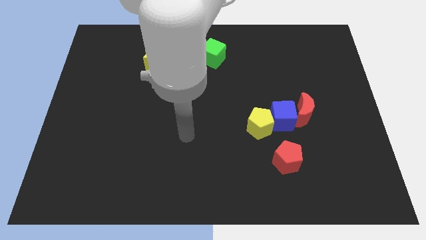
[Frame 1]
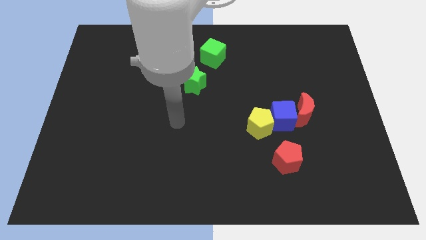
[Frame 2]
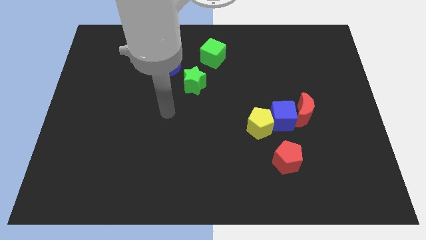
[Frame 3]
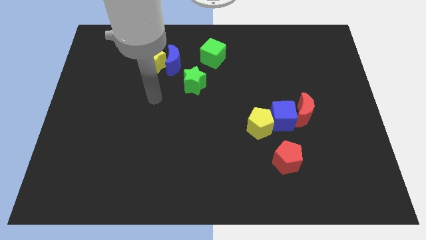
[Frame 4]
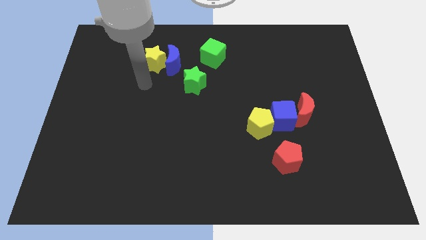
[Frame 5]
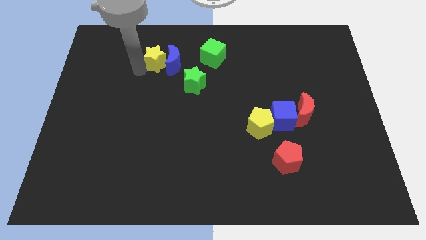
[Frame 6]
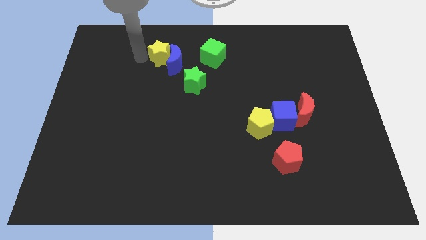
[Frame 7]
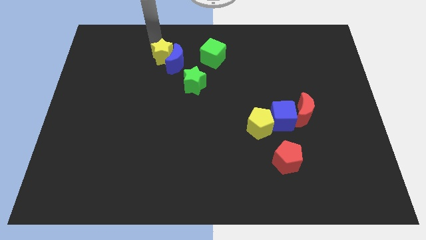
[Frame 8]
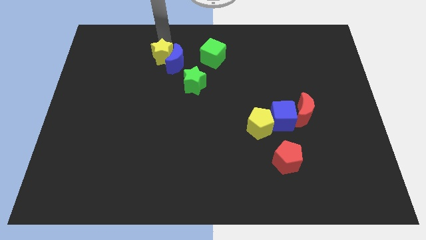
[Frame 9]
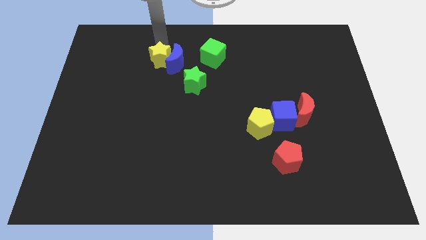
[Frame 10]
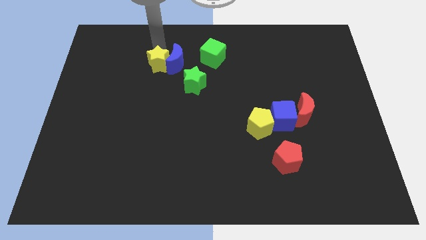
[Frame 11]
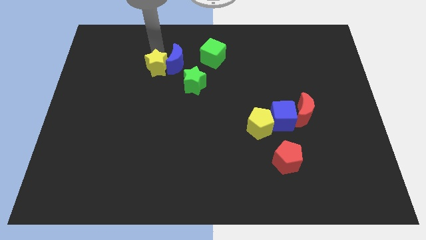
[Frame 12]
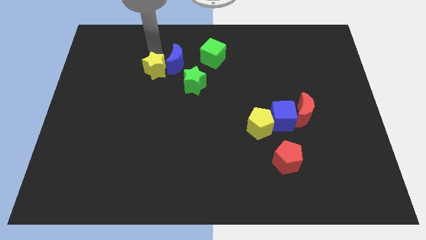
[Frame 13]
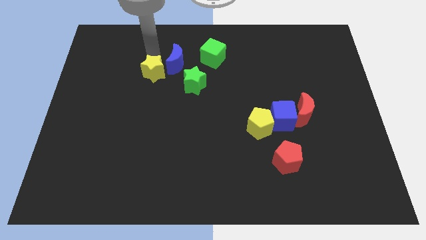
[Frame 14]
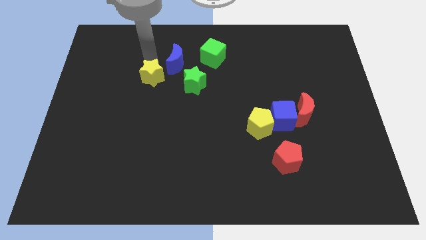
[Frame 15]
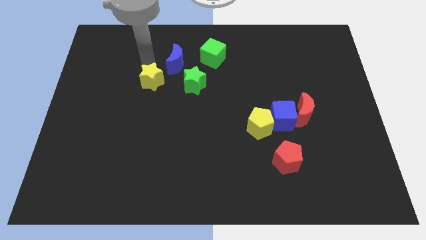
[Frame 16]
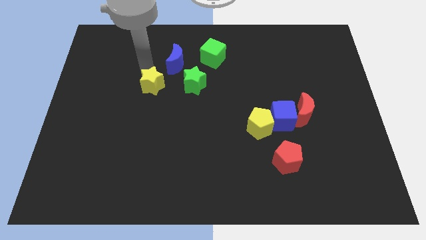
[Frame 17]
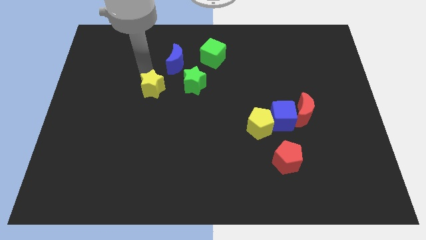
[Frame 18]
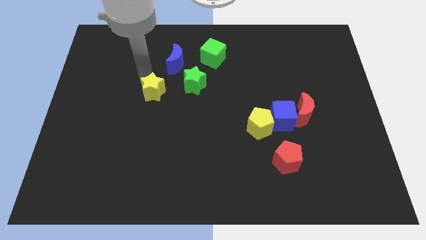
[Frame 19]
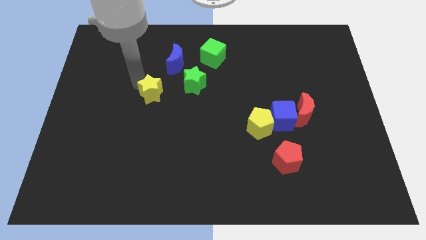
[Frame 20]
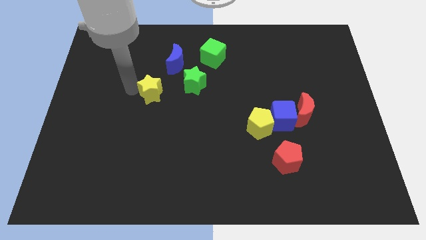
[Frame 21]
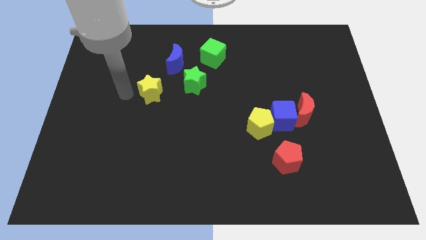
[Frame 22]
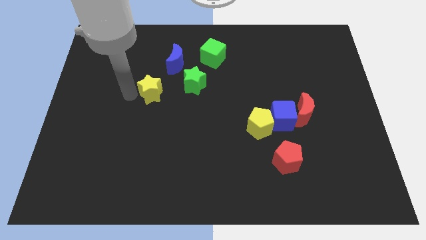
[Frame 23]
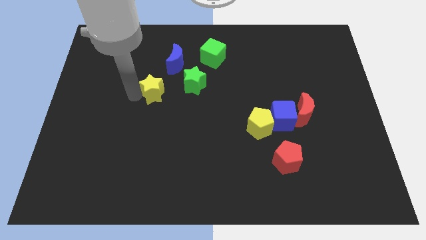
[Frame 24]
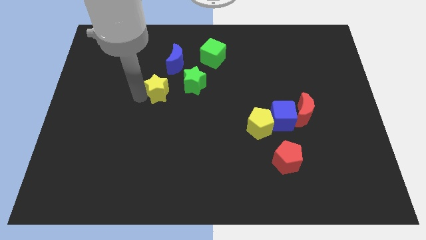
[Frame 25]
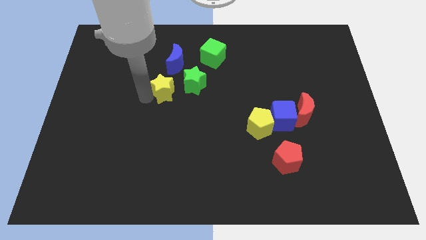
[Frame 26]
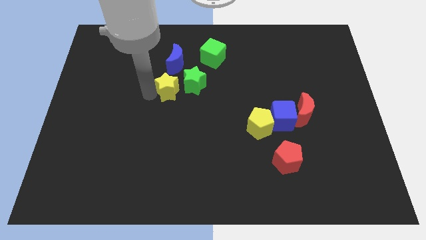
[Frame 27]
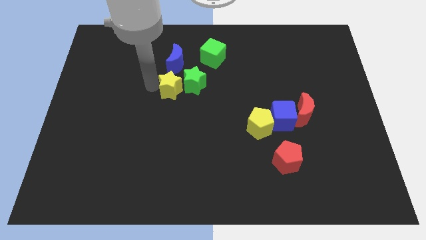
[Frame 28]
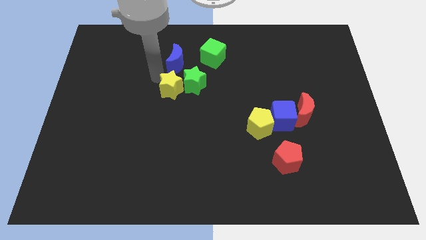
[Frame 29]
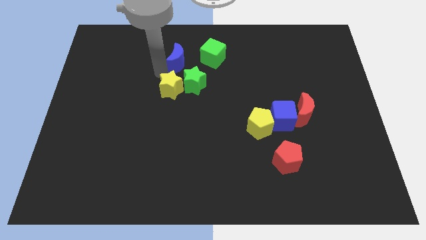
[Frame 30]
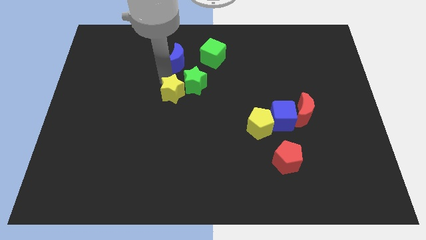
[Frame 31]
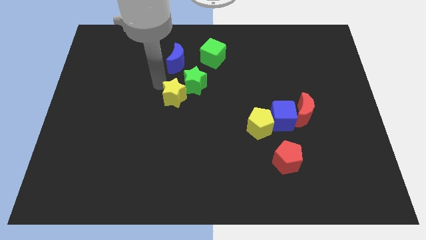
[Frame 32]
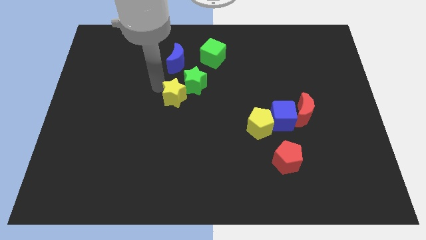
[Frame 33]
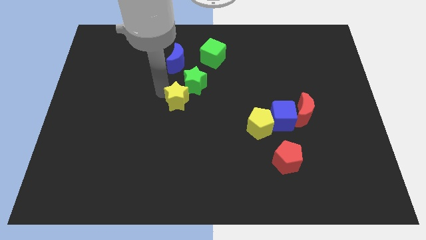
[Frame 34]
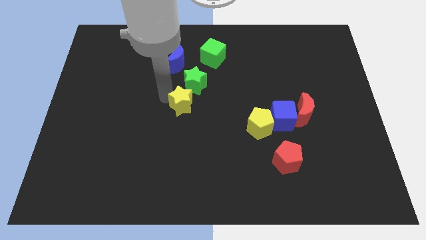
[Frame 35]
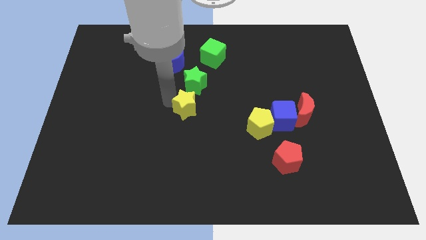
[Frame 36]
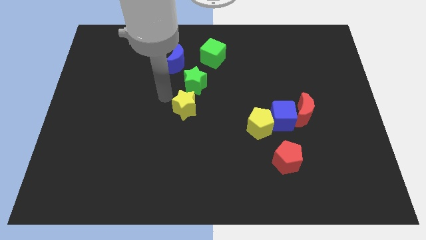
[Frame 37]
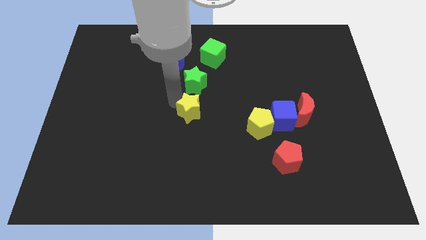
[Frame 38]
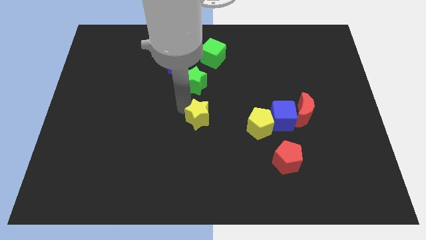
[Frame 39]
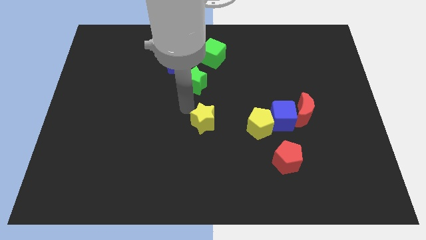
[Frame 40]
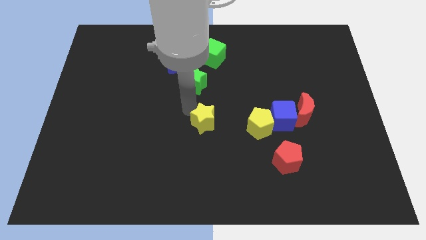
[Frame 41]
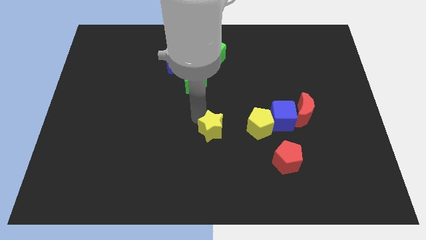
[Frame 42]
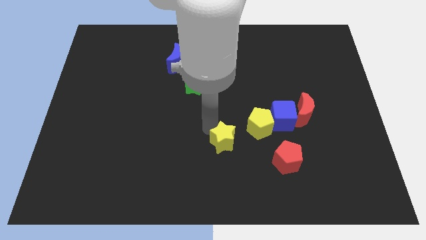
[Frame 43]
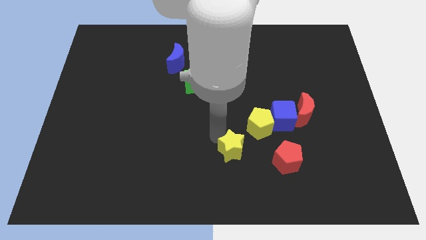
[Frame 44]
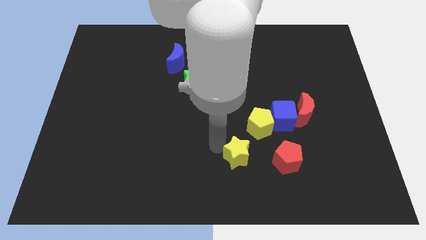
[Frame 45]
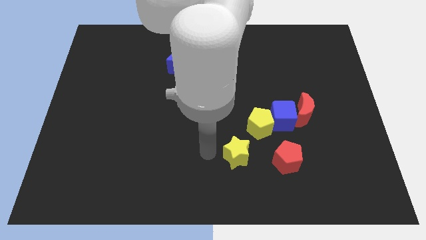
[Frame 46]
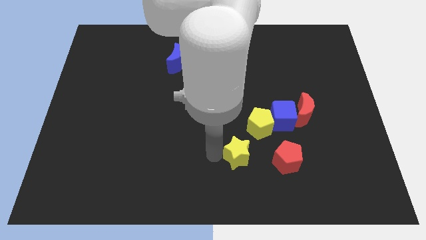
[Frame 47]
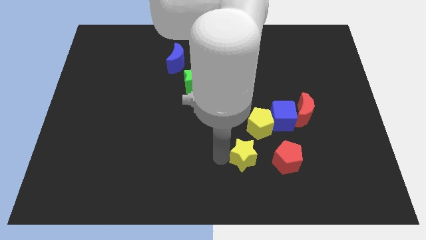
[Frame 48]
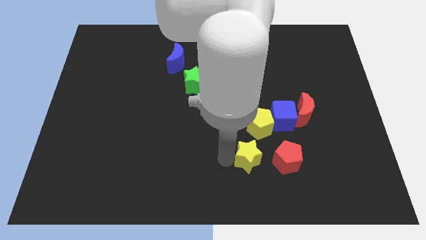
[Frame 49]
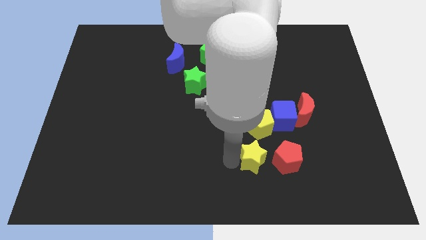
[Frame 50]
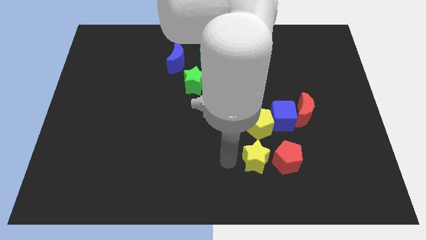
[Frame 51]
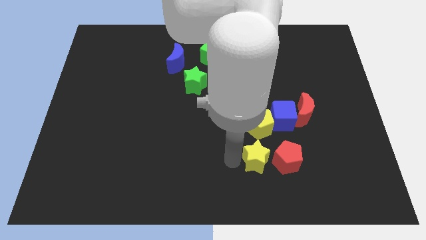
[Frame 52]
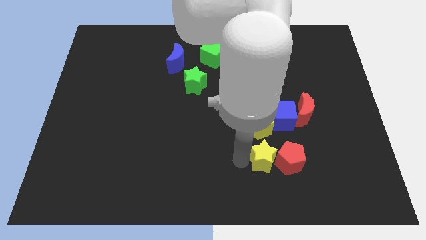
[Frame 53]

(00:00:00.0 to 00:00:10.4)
slide the yellow star towards the red pentagon

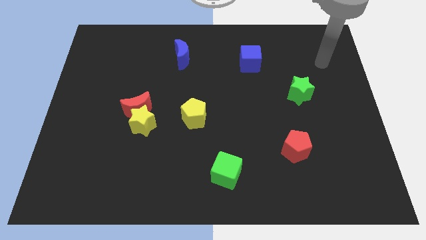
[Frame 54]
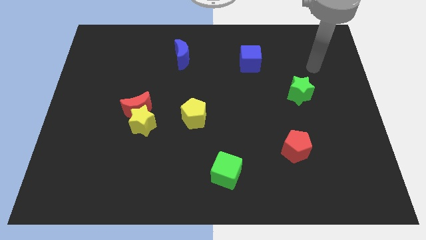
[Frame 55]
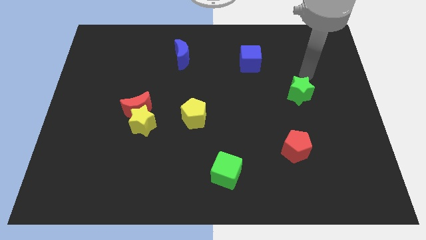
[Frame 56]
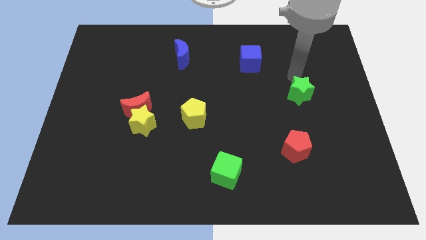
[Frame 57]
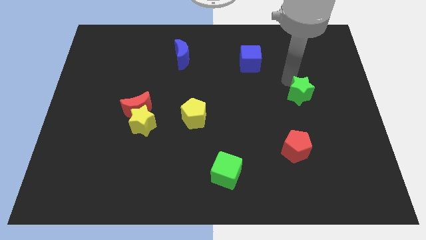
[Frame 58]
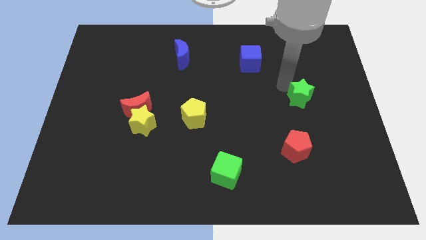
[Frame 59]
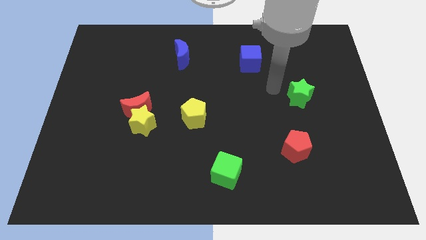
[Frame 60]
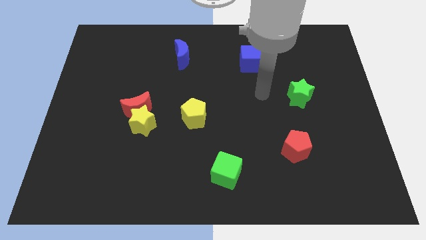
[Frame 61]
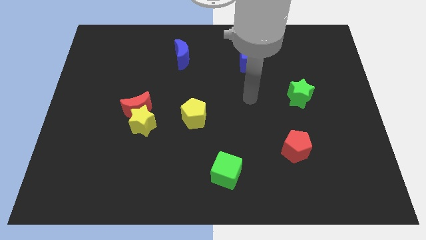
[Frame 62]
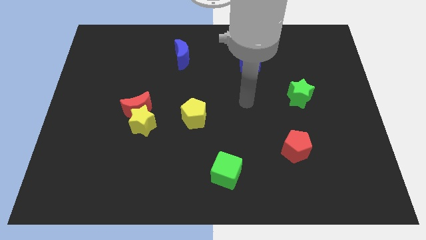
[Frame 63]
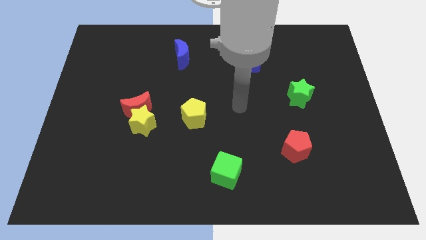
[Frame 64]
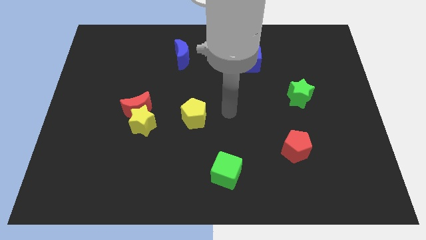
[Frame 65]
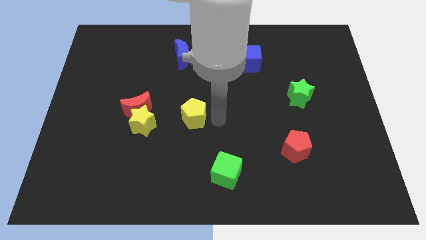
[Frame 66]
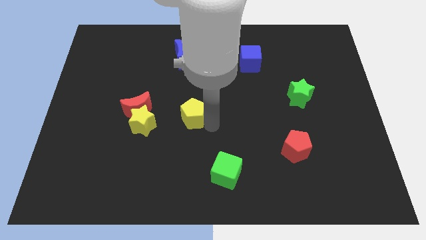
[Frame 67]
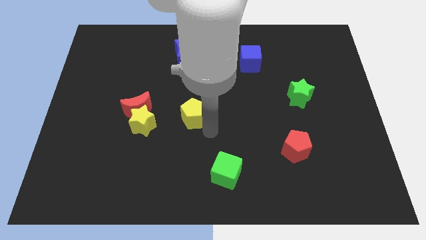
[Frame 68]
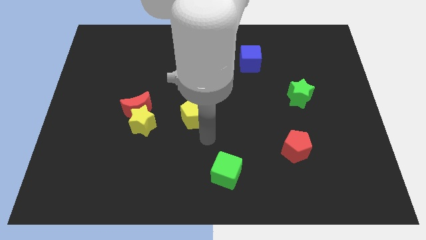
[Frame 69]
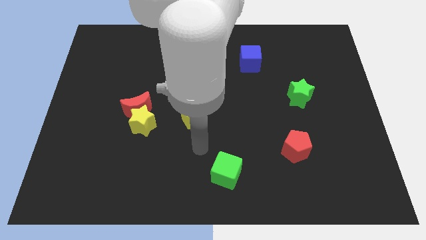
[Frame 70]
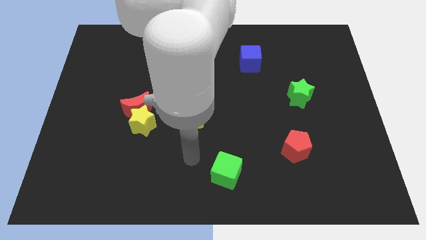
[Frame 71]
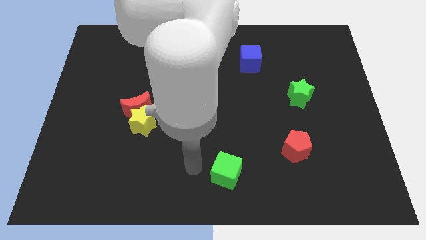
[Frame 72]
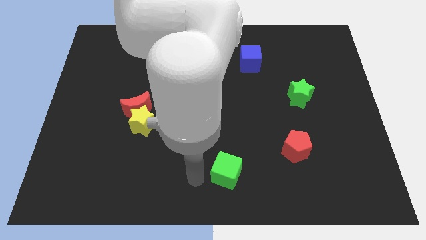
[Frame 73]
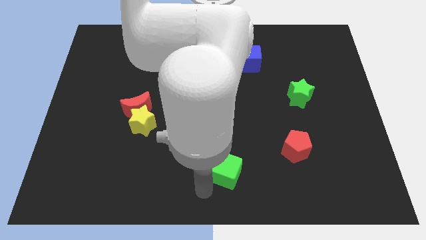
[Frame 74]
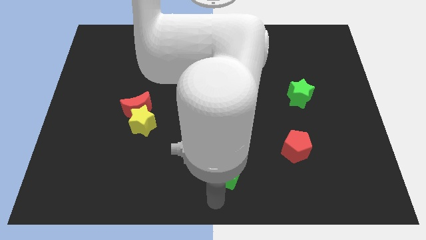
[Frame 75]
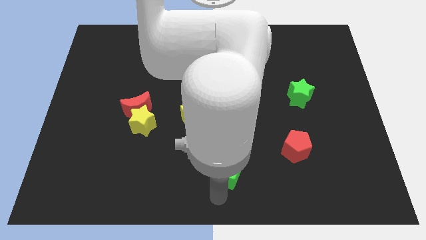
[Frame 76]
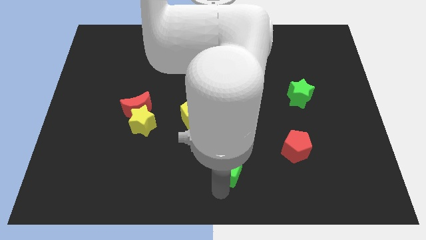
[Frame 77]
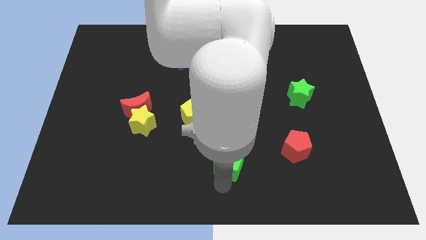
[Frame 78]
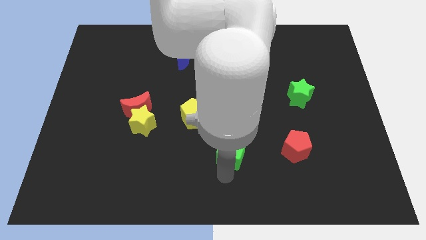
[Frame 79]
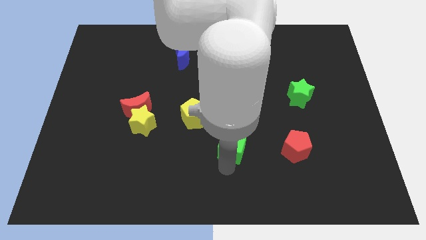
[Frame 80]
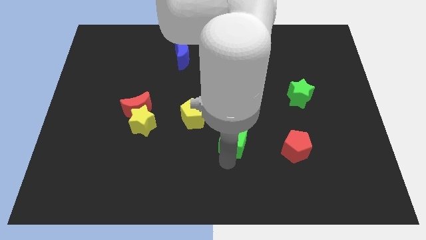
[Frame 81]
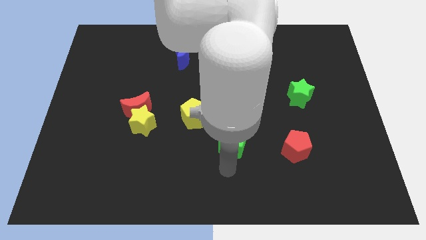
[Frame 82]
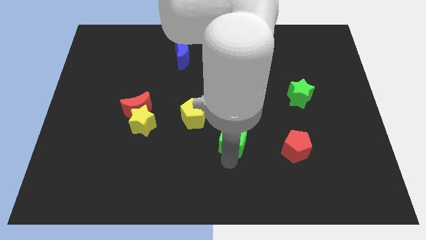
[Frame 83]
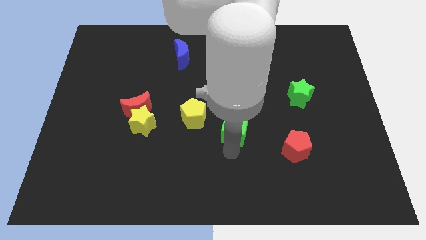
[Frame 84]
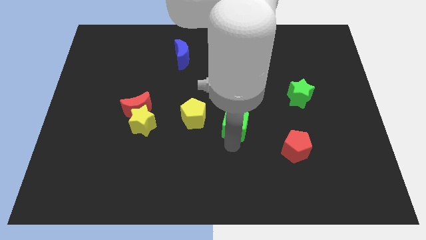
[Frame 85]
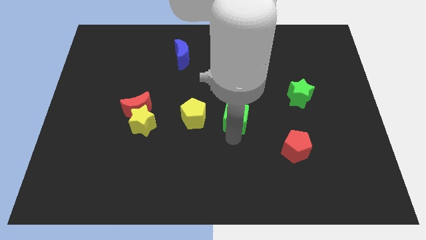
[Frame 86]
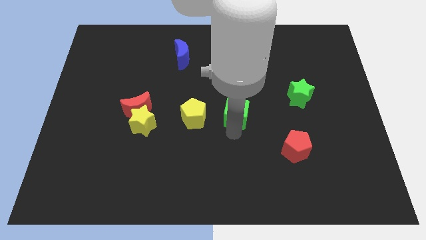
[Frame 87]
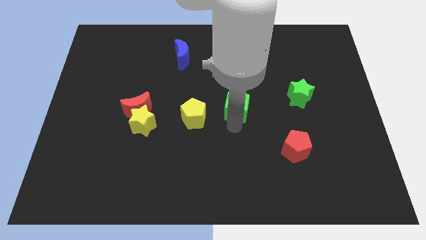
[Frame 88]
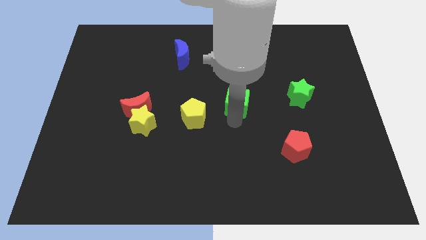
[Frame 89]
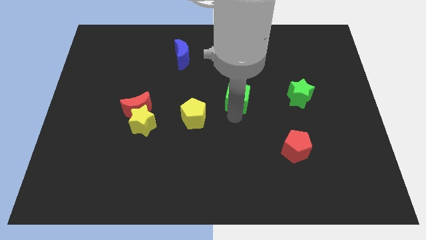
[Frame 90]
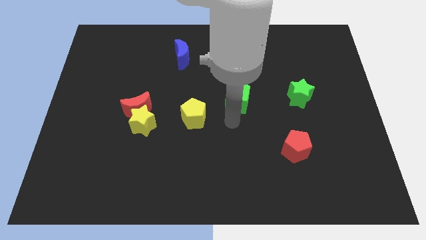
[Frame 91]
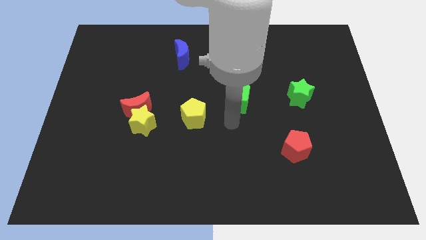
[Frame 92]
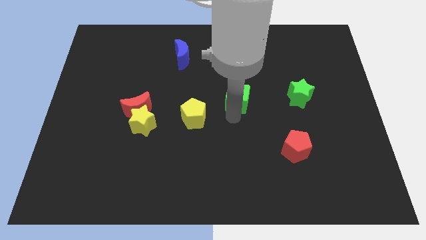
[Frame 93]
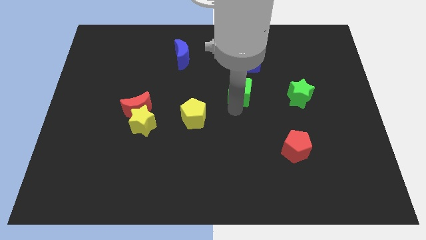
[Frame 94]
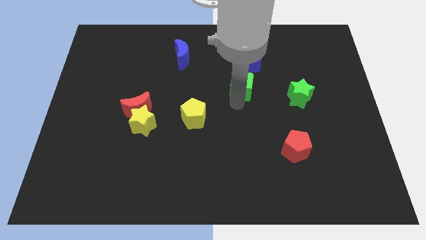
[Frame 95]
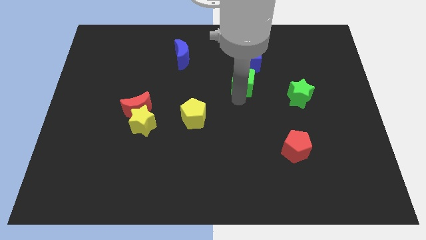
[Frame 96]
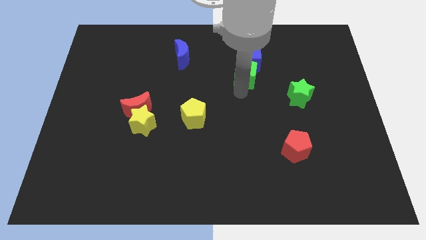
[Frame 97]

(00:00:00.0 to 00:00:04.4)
put the green cube to the blue cube
